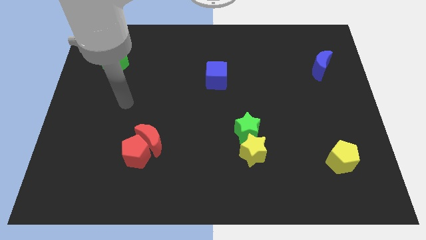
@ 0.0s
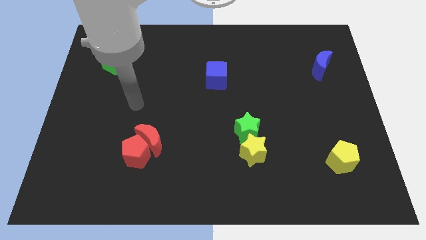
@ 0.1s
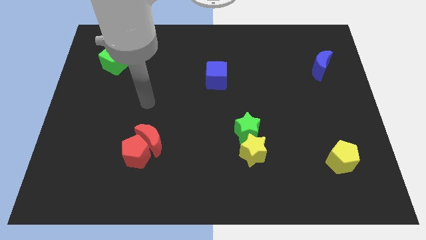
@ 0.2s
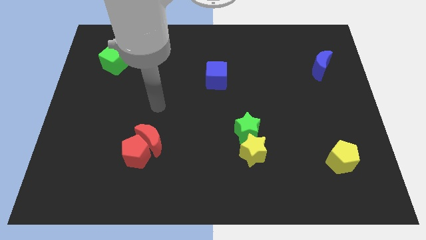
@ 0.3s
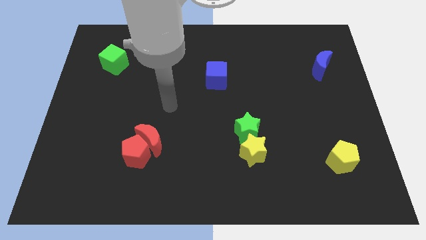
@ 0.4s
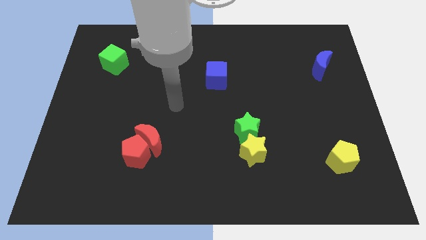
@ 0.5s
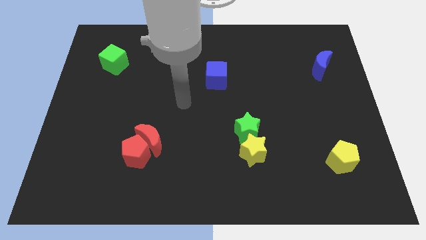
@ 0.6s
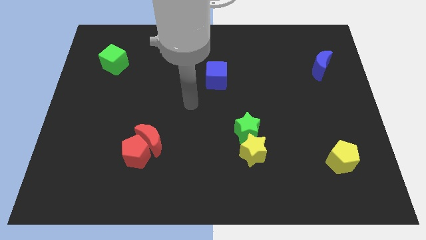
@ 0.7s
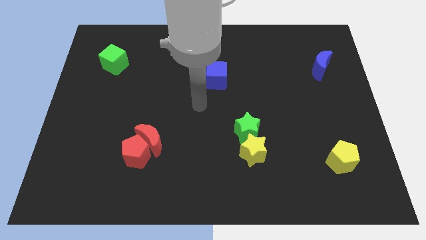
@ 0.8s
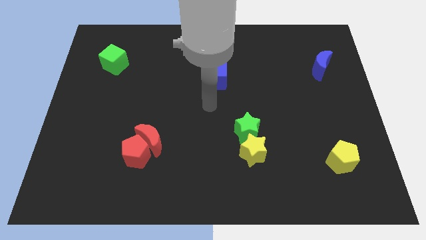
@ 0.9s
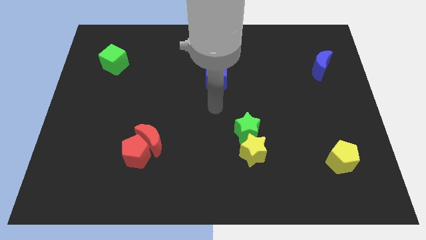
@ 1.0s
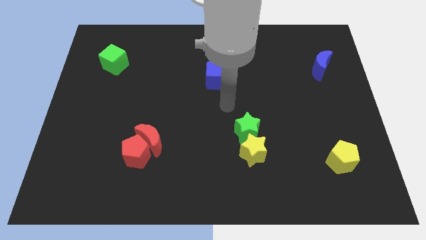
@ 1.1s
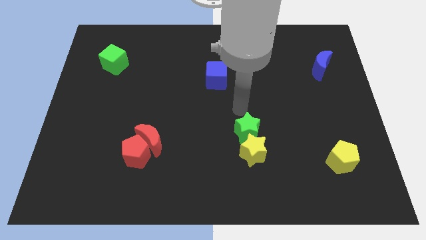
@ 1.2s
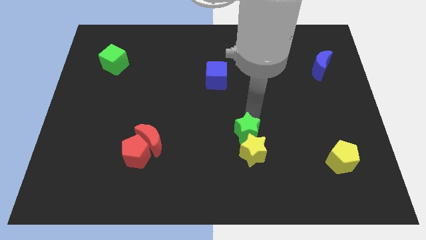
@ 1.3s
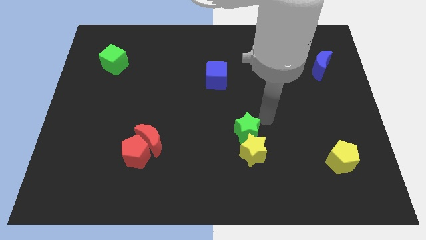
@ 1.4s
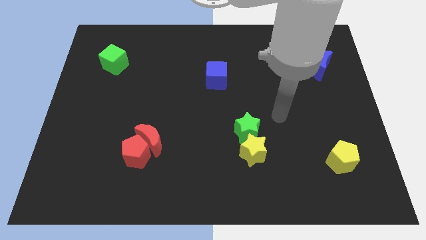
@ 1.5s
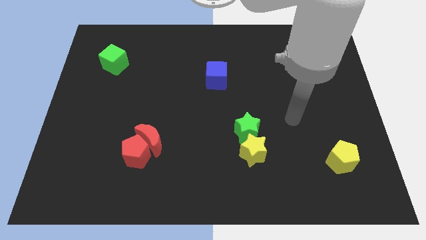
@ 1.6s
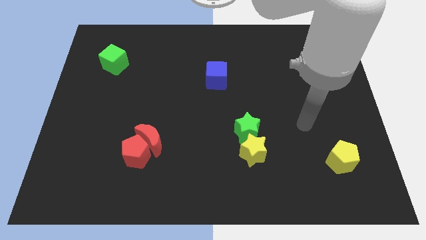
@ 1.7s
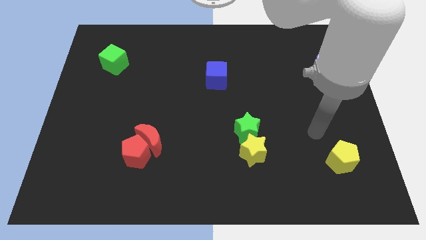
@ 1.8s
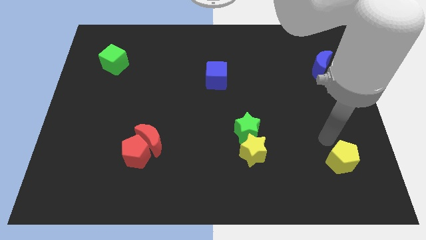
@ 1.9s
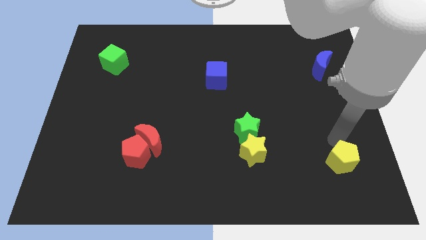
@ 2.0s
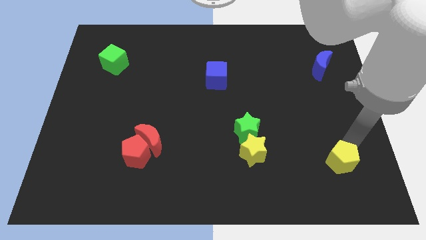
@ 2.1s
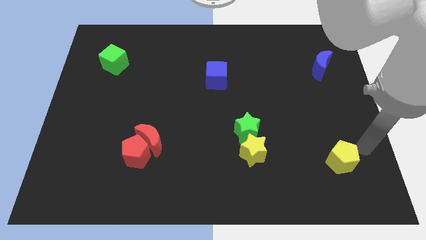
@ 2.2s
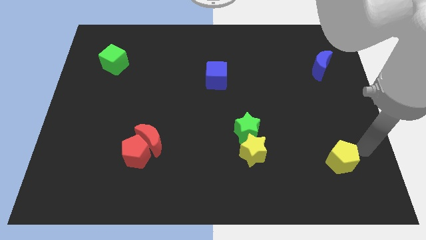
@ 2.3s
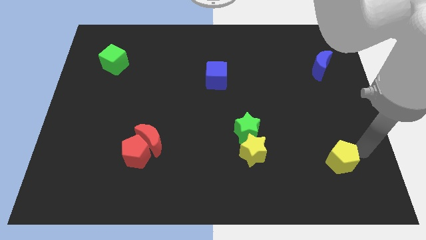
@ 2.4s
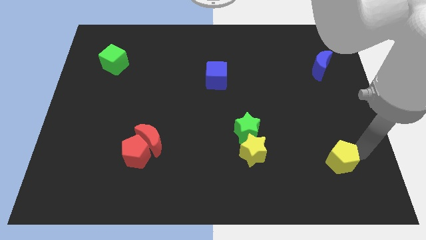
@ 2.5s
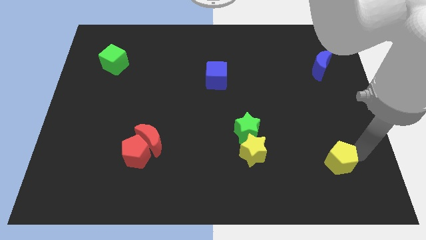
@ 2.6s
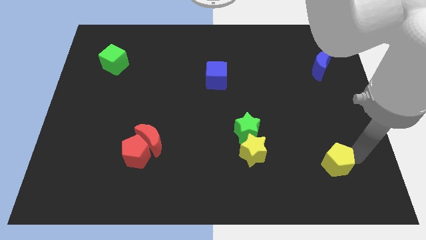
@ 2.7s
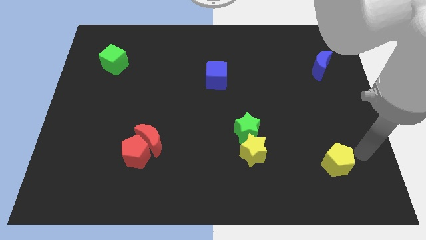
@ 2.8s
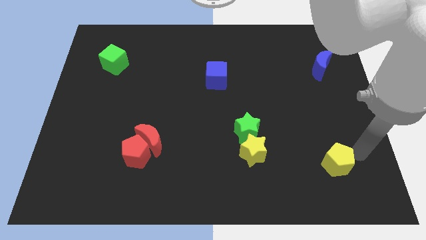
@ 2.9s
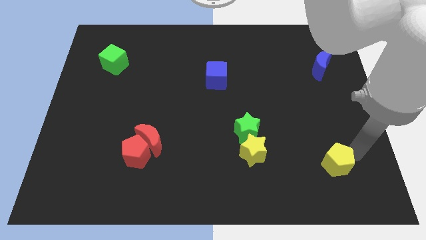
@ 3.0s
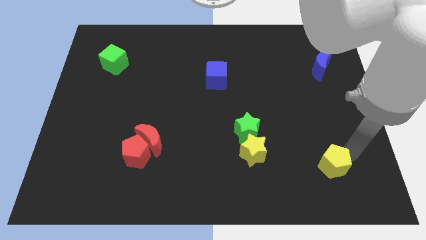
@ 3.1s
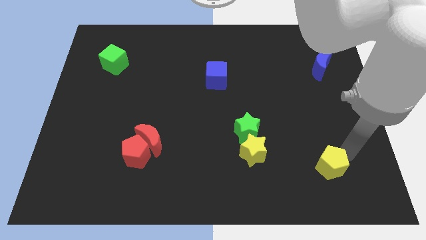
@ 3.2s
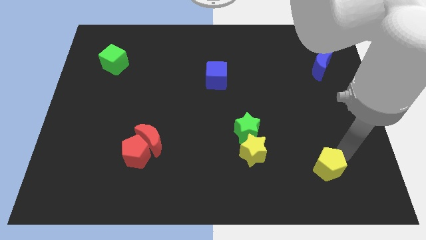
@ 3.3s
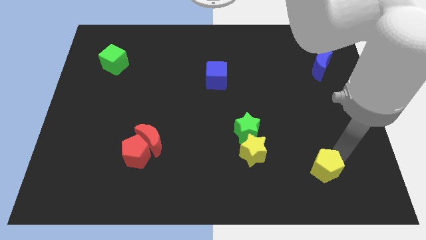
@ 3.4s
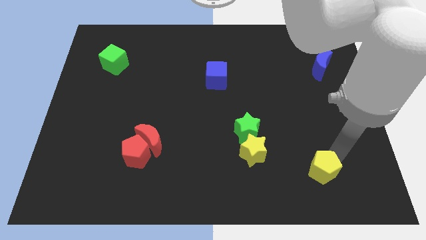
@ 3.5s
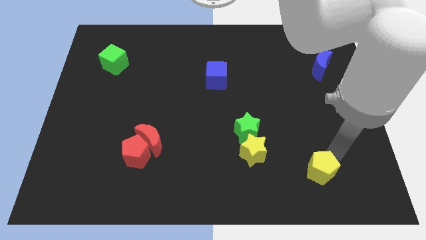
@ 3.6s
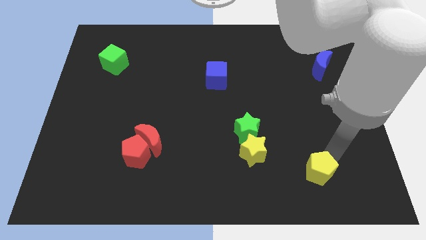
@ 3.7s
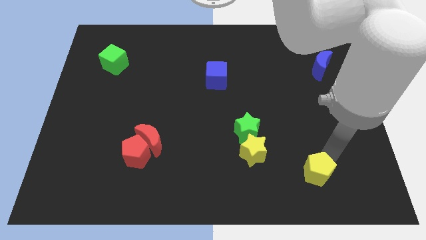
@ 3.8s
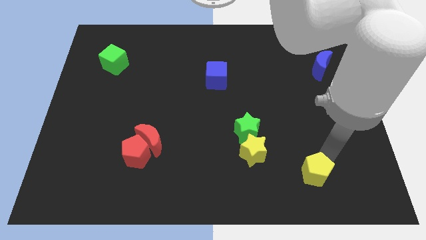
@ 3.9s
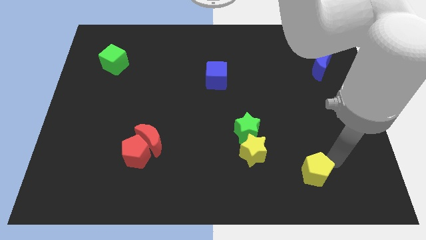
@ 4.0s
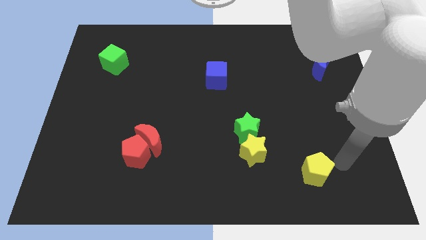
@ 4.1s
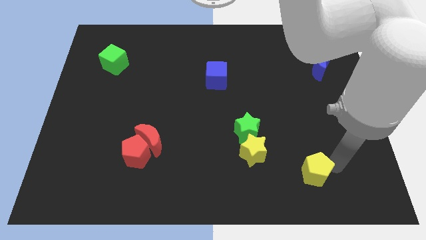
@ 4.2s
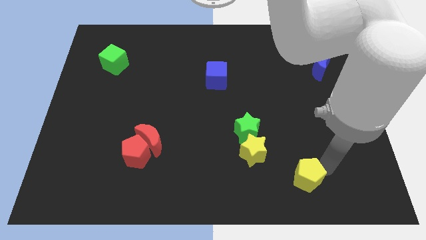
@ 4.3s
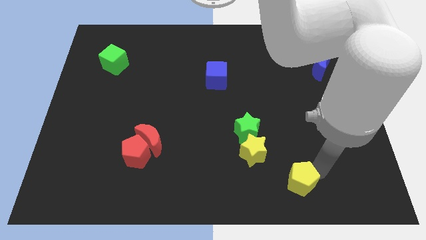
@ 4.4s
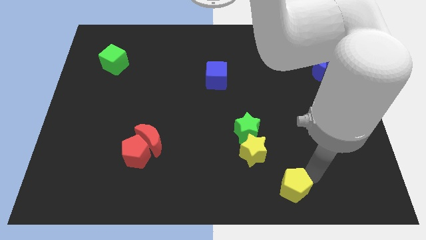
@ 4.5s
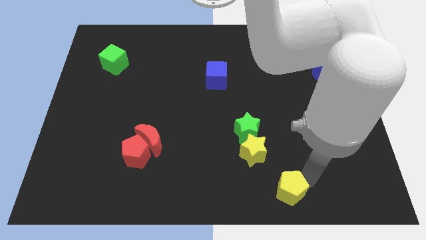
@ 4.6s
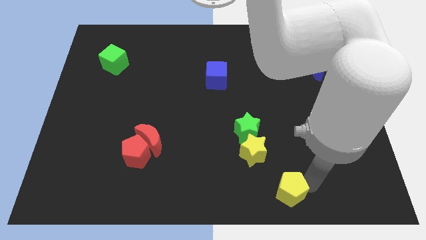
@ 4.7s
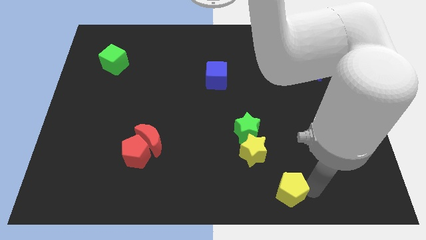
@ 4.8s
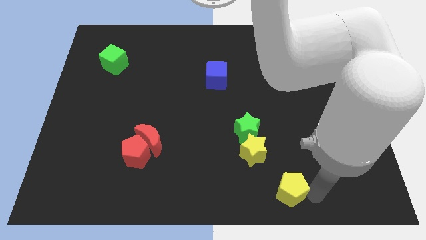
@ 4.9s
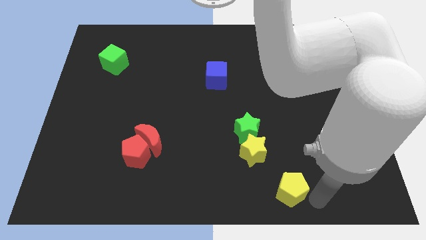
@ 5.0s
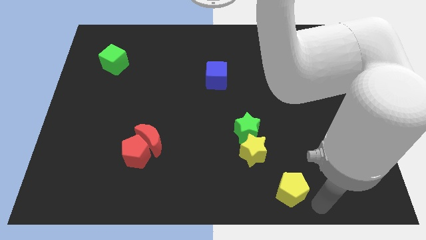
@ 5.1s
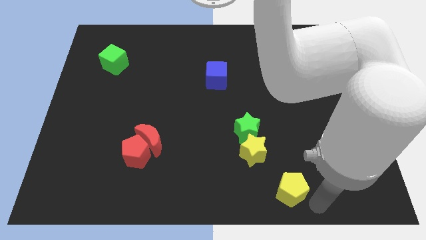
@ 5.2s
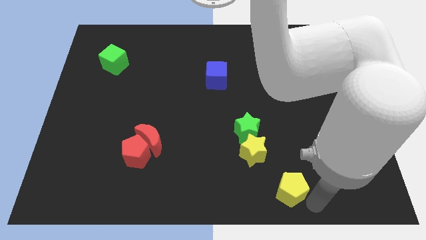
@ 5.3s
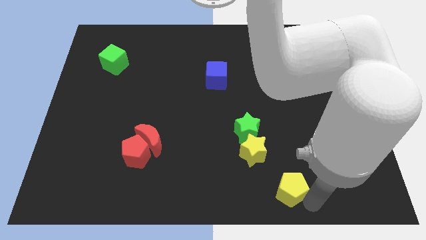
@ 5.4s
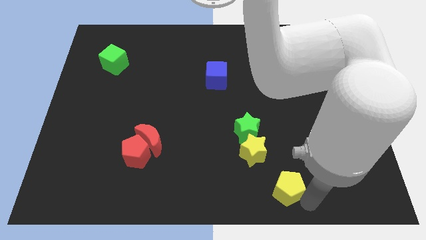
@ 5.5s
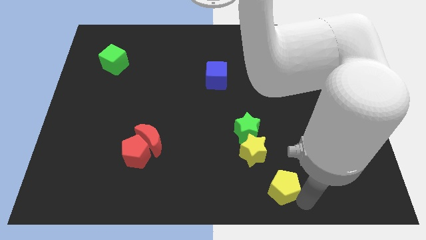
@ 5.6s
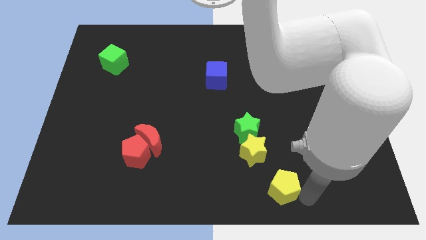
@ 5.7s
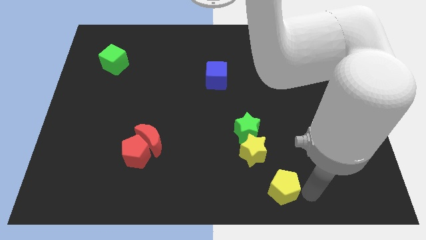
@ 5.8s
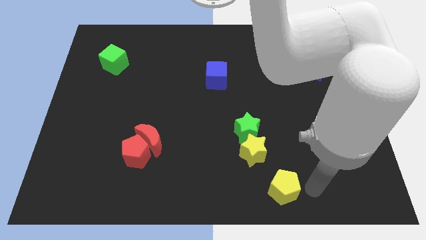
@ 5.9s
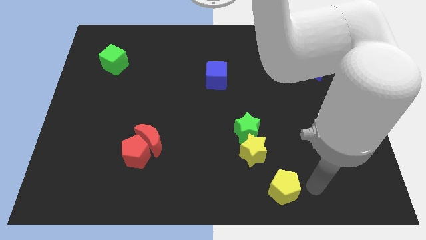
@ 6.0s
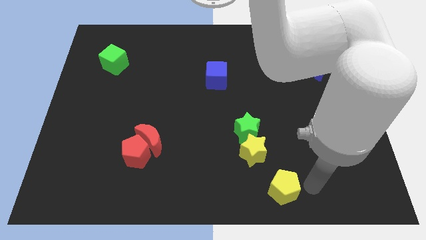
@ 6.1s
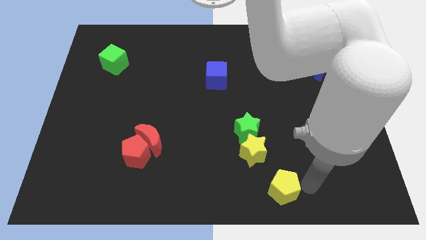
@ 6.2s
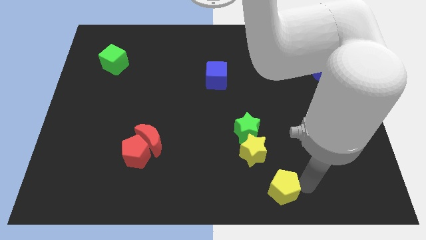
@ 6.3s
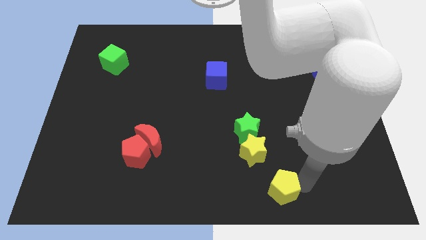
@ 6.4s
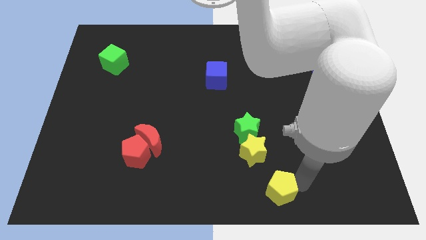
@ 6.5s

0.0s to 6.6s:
slide the yellow pentagon to the bottom side
